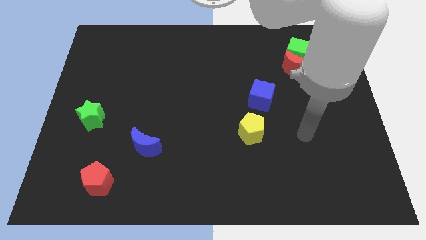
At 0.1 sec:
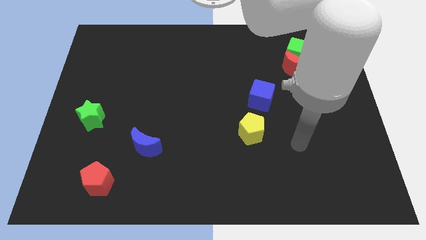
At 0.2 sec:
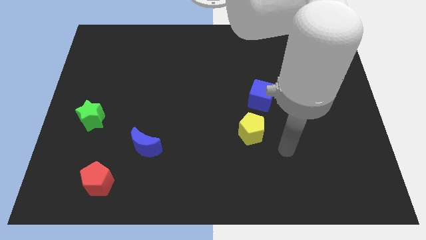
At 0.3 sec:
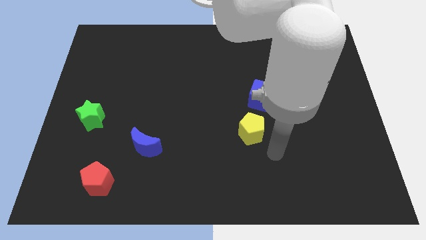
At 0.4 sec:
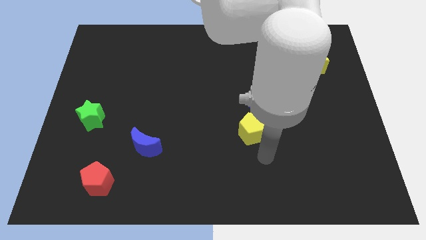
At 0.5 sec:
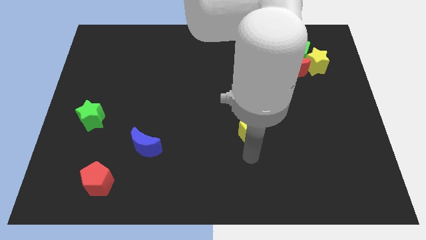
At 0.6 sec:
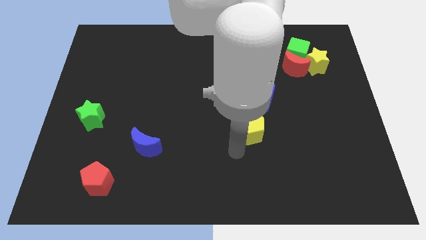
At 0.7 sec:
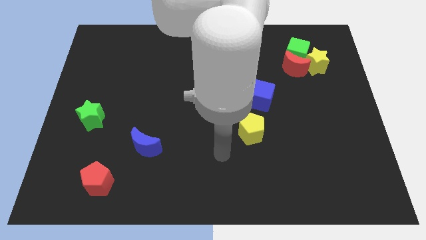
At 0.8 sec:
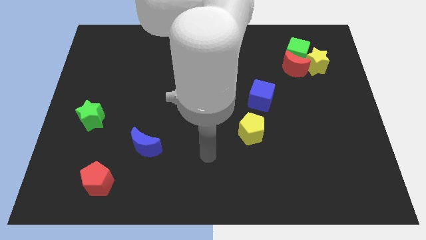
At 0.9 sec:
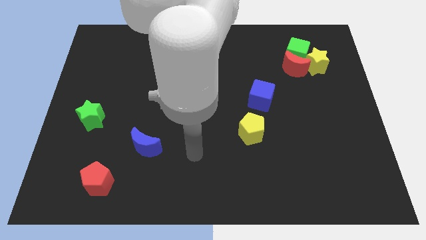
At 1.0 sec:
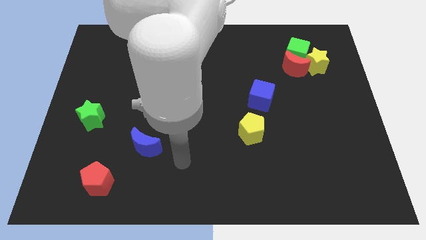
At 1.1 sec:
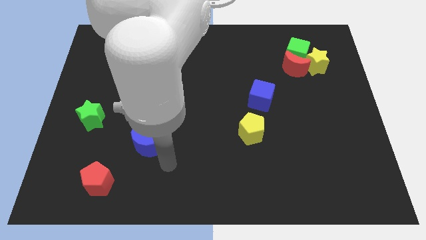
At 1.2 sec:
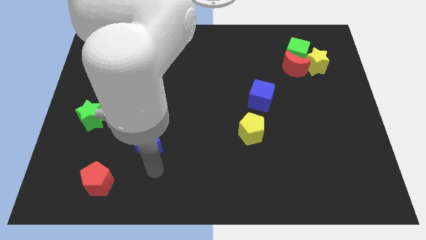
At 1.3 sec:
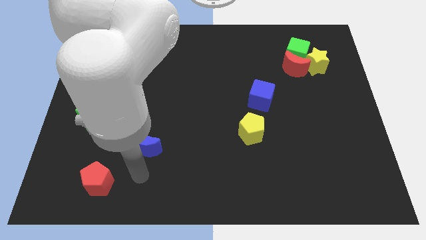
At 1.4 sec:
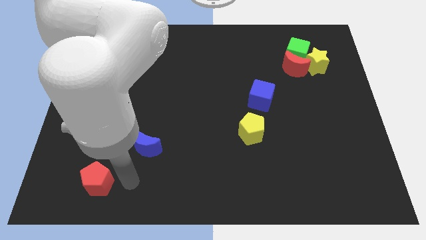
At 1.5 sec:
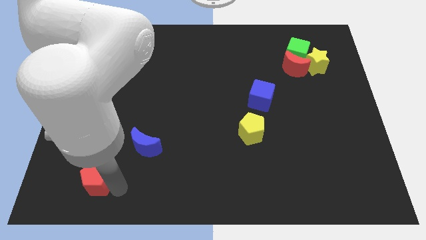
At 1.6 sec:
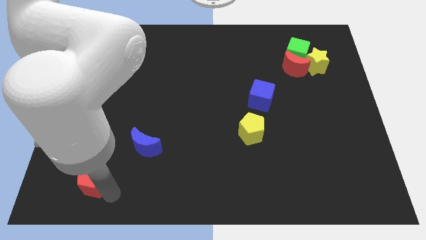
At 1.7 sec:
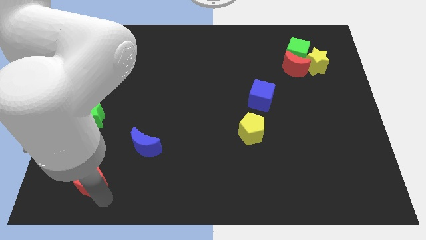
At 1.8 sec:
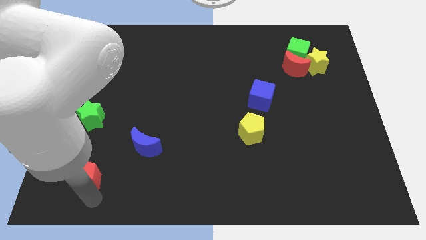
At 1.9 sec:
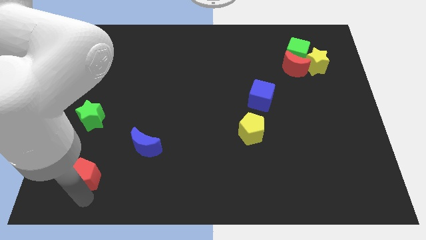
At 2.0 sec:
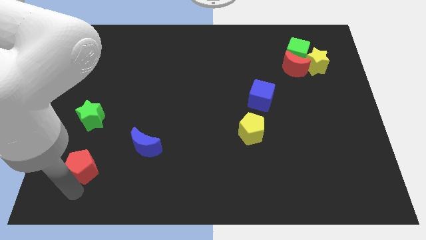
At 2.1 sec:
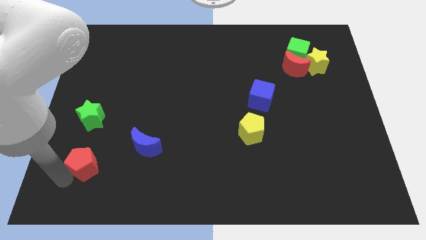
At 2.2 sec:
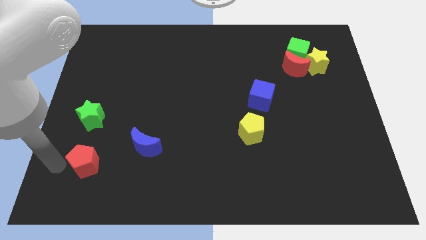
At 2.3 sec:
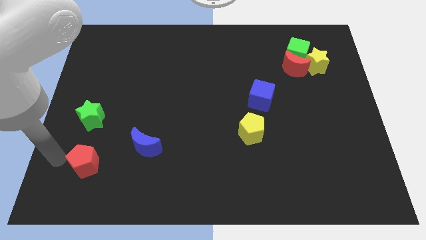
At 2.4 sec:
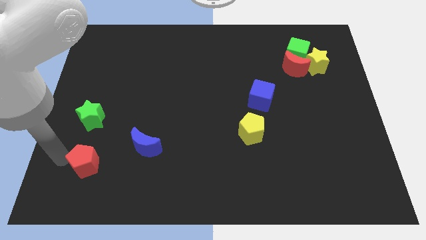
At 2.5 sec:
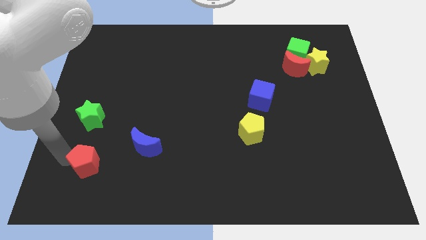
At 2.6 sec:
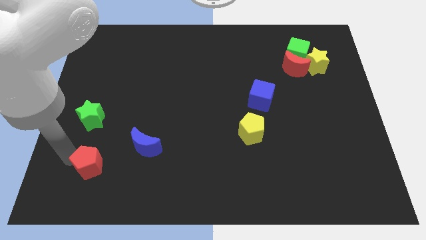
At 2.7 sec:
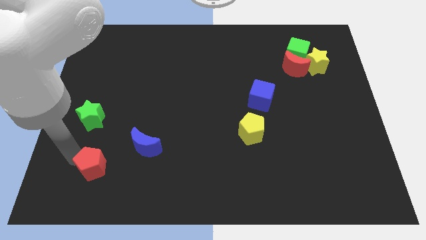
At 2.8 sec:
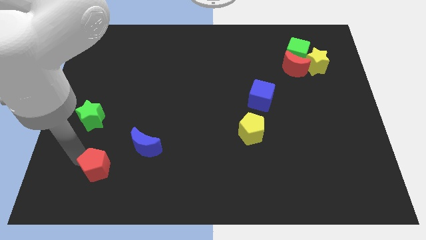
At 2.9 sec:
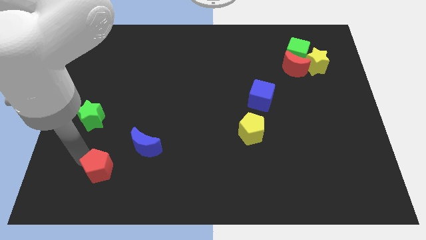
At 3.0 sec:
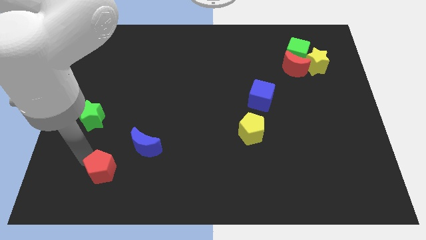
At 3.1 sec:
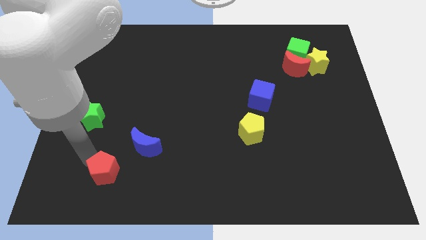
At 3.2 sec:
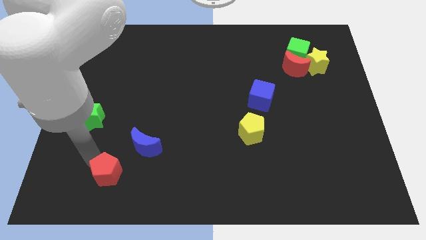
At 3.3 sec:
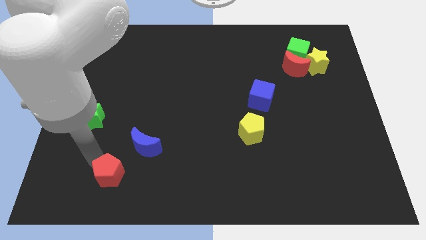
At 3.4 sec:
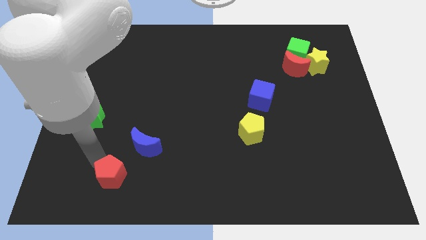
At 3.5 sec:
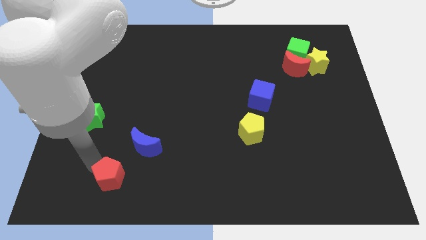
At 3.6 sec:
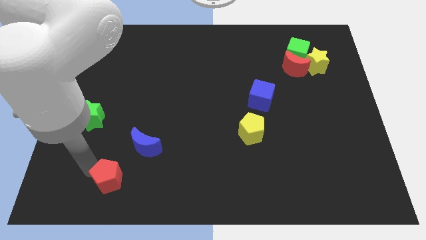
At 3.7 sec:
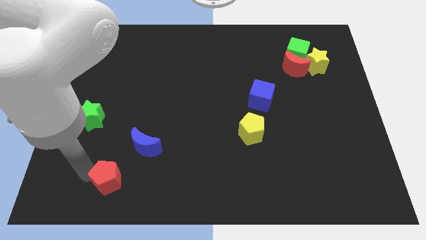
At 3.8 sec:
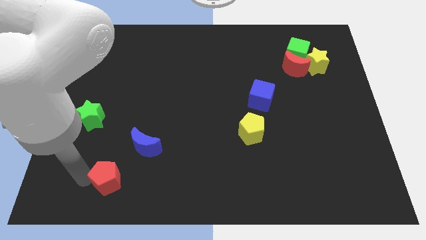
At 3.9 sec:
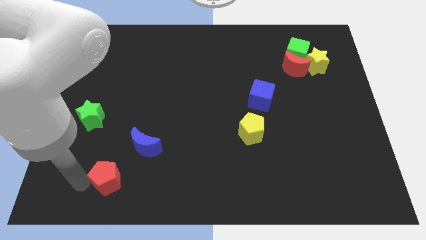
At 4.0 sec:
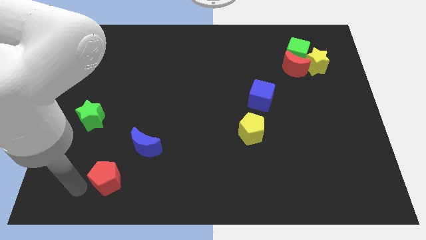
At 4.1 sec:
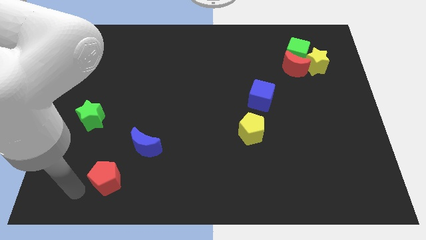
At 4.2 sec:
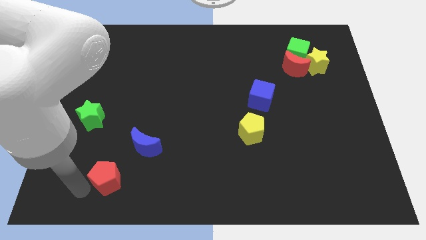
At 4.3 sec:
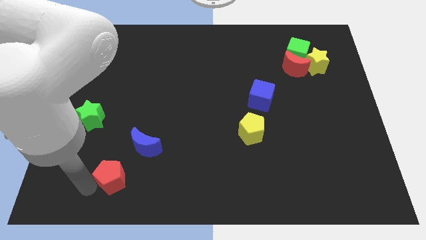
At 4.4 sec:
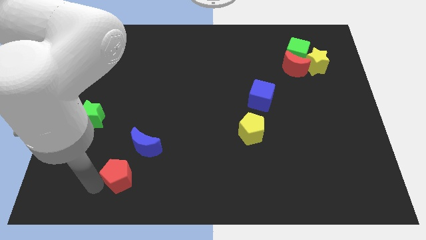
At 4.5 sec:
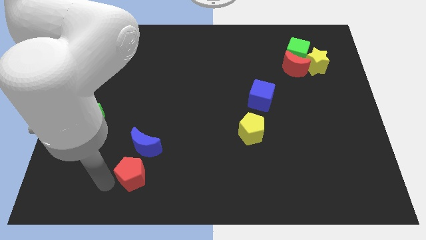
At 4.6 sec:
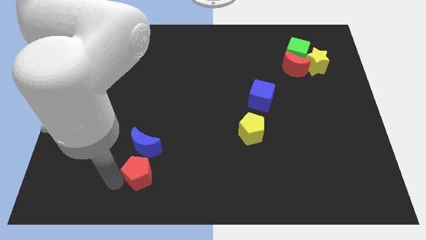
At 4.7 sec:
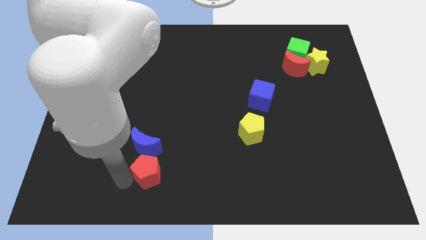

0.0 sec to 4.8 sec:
slightly move the red pentagon up and then to the right

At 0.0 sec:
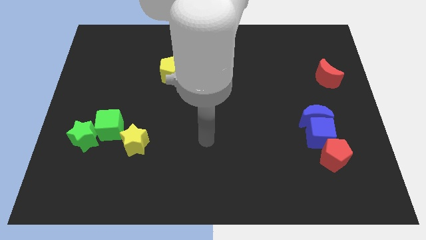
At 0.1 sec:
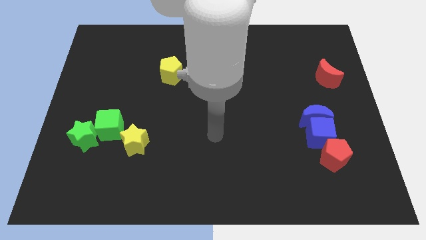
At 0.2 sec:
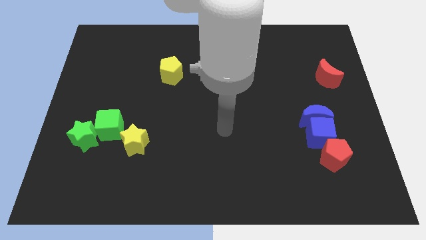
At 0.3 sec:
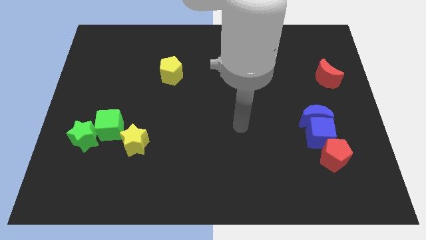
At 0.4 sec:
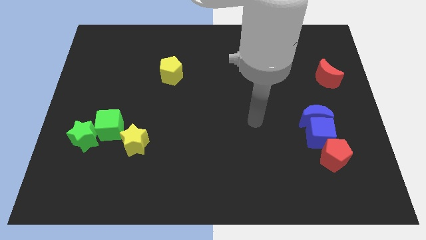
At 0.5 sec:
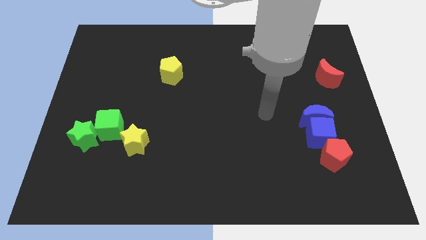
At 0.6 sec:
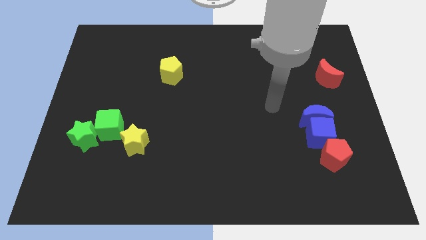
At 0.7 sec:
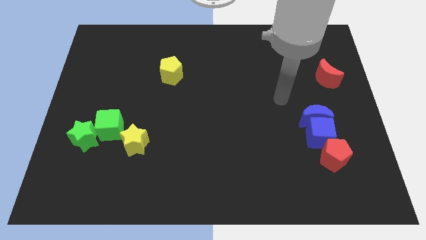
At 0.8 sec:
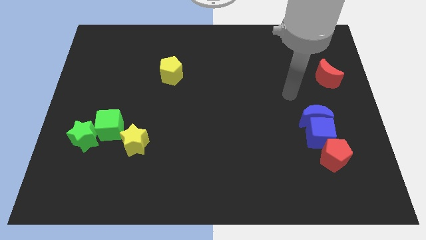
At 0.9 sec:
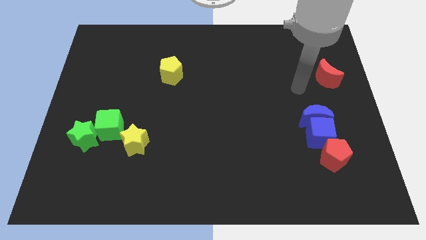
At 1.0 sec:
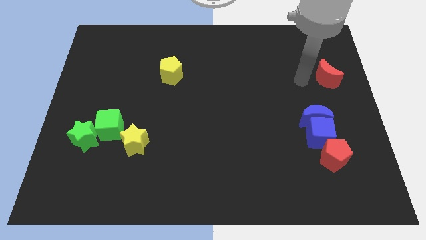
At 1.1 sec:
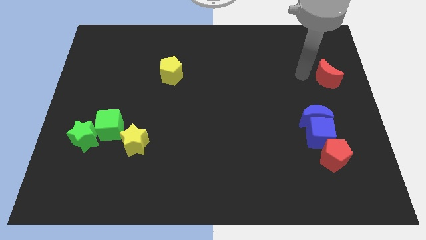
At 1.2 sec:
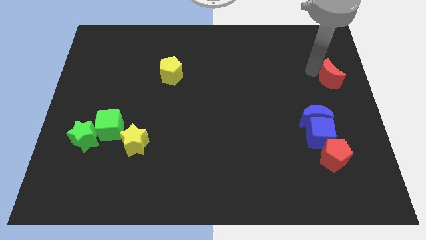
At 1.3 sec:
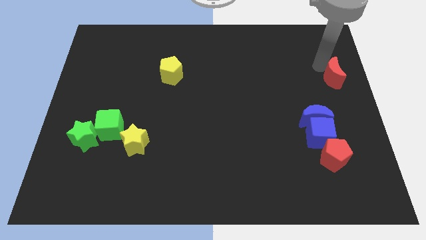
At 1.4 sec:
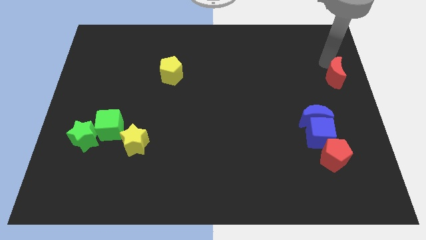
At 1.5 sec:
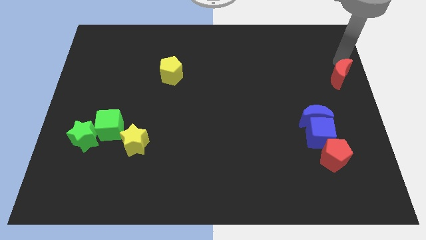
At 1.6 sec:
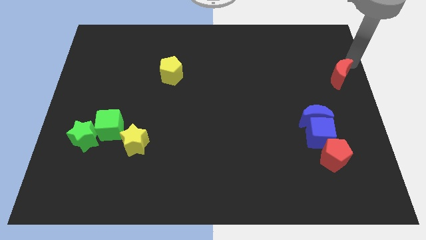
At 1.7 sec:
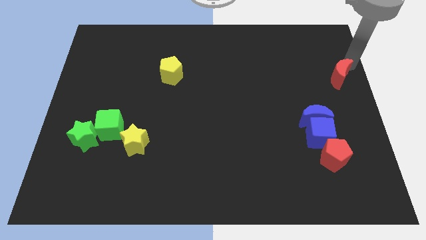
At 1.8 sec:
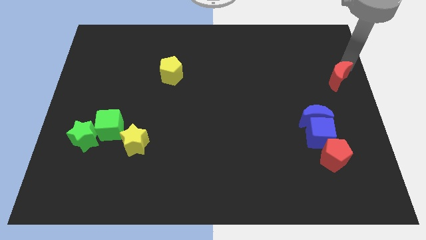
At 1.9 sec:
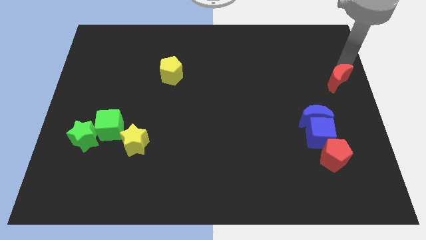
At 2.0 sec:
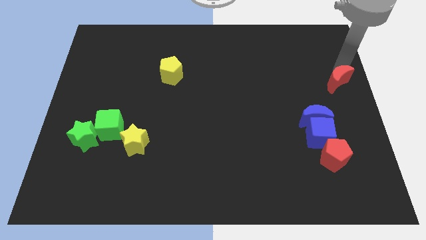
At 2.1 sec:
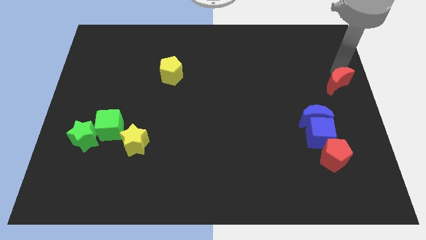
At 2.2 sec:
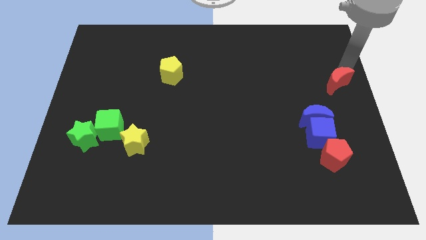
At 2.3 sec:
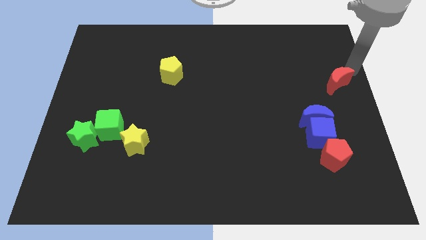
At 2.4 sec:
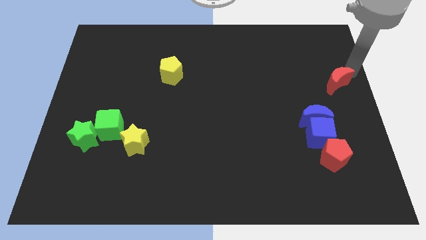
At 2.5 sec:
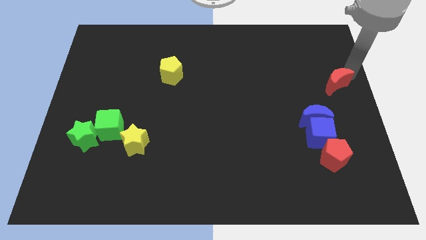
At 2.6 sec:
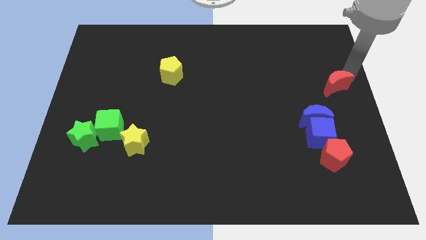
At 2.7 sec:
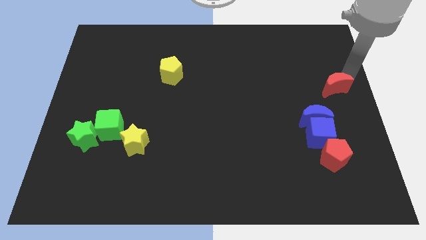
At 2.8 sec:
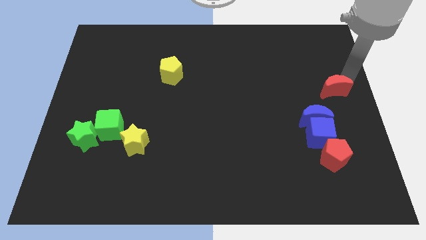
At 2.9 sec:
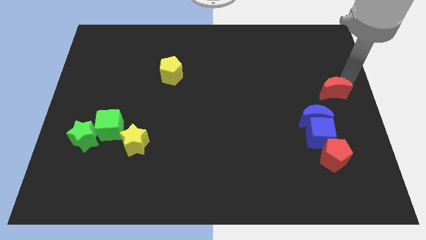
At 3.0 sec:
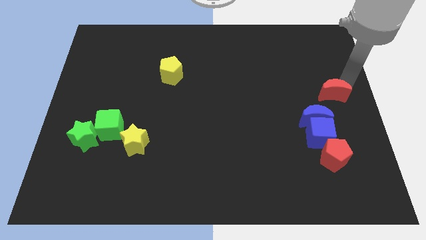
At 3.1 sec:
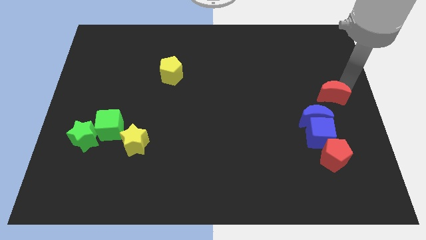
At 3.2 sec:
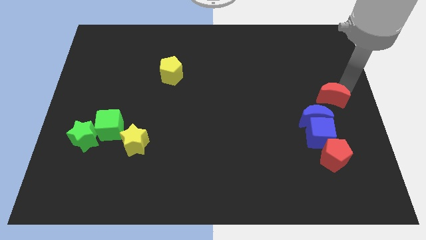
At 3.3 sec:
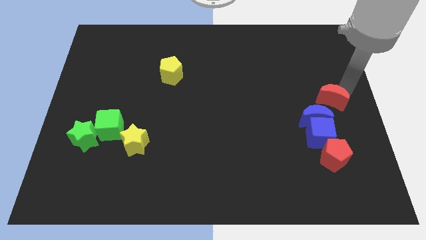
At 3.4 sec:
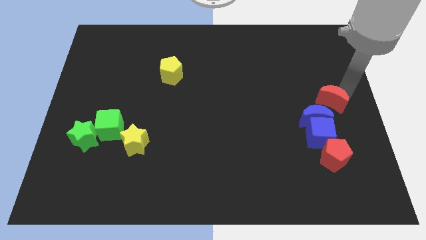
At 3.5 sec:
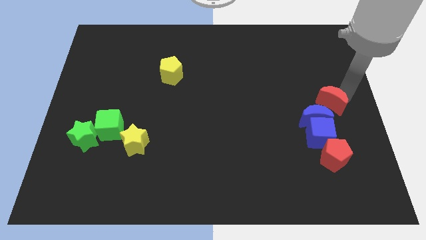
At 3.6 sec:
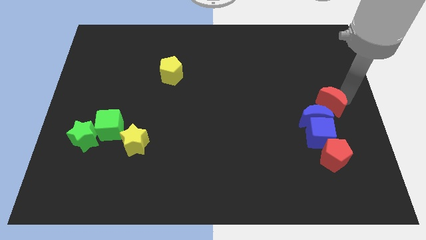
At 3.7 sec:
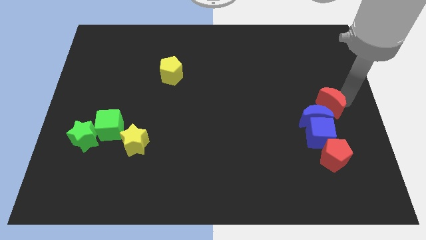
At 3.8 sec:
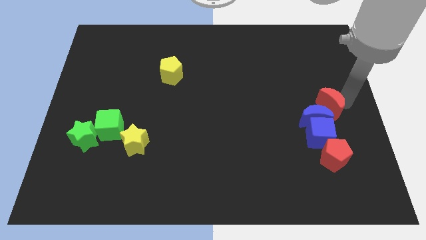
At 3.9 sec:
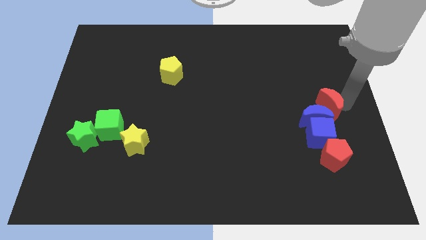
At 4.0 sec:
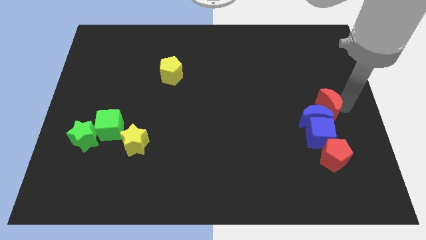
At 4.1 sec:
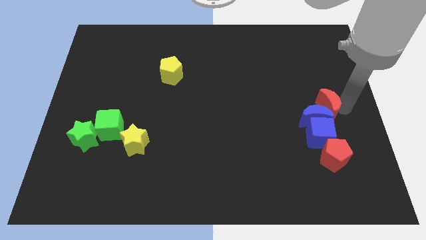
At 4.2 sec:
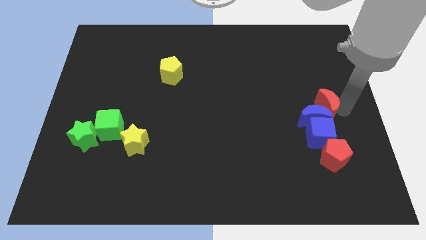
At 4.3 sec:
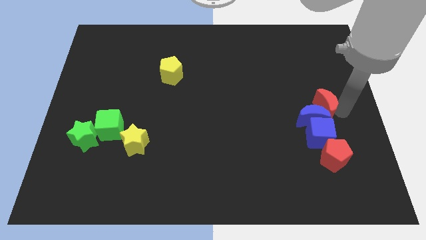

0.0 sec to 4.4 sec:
push the red moon a bit diagonally down and to the left
